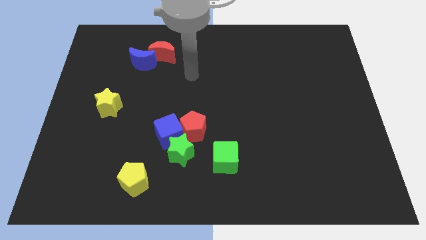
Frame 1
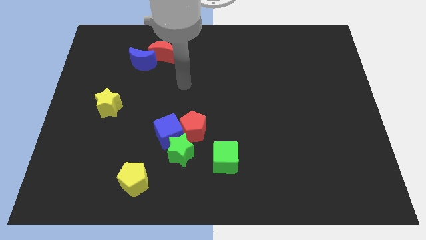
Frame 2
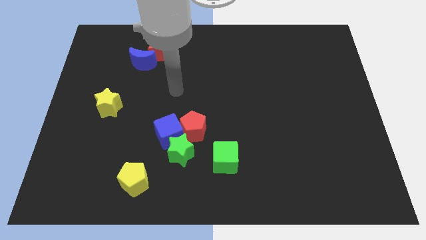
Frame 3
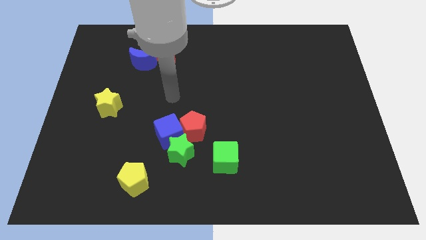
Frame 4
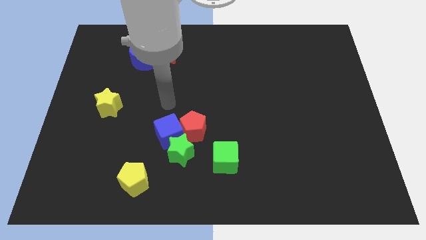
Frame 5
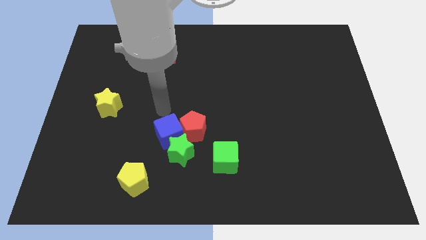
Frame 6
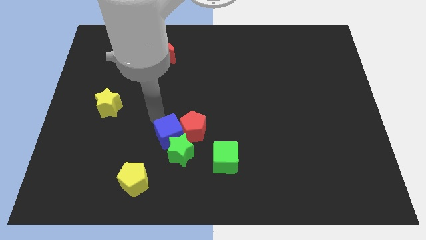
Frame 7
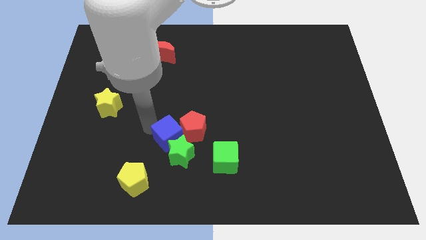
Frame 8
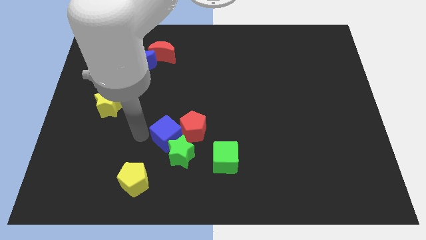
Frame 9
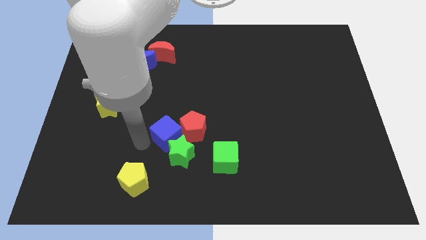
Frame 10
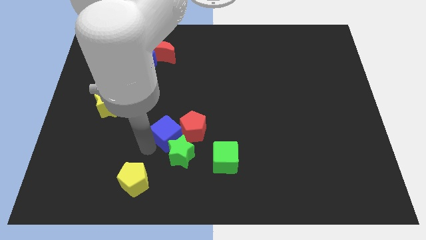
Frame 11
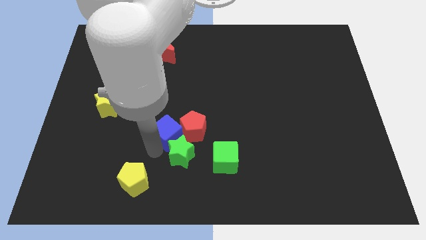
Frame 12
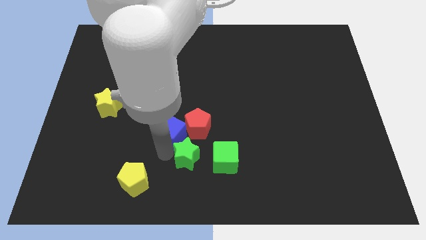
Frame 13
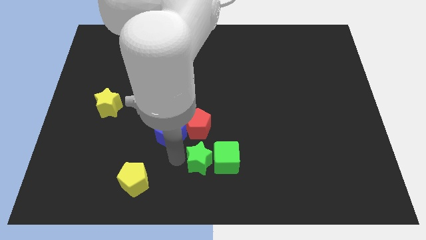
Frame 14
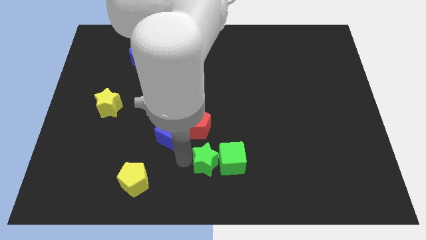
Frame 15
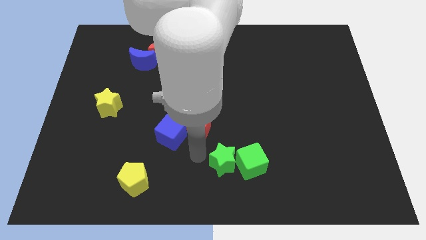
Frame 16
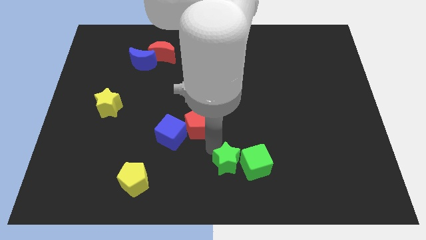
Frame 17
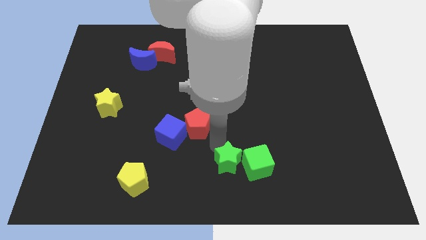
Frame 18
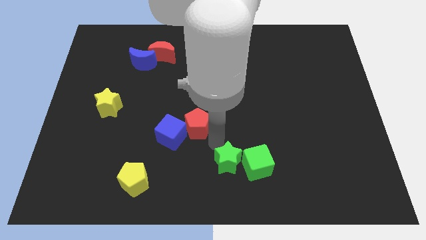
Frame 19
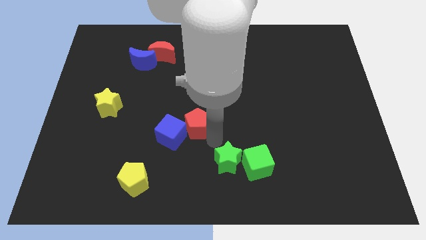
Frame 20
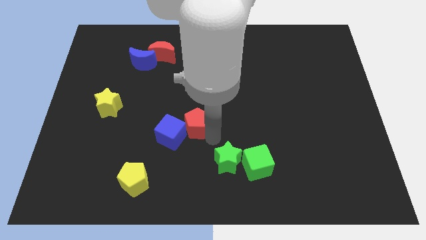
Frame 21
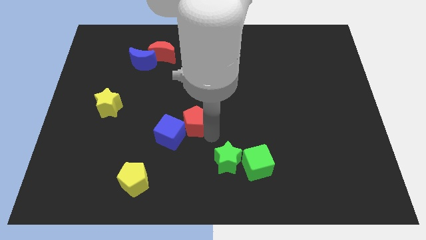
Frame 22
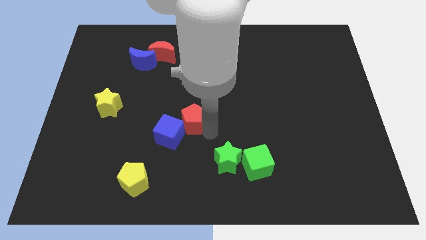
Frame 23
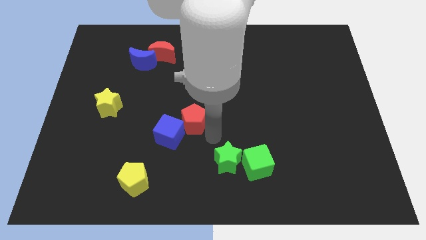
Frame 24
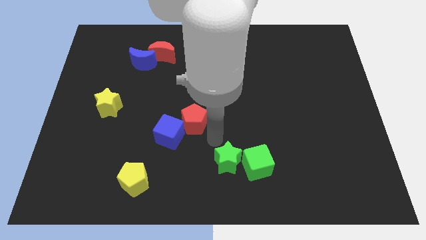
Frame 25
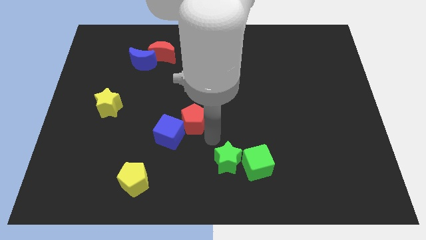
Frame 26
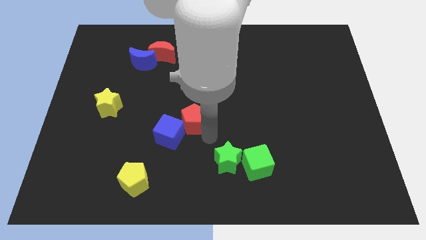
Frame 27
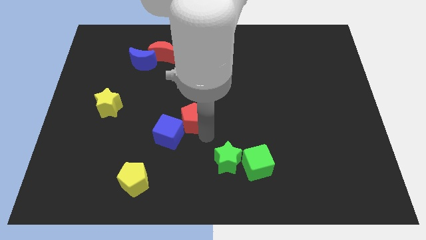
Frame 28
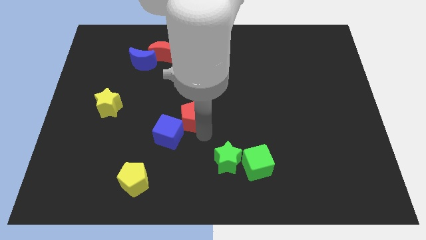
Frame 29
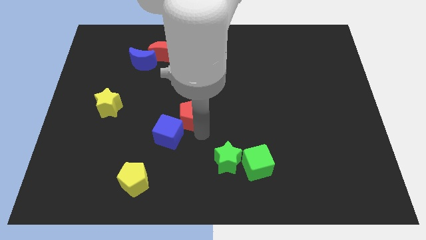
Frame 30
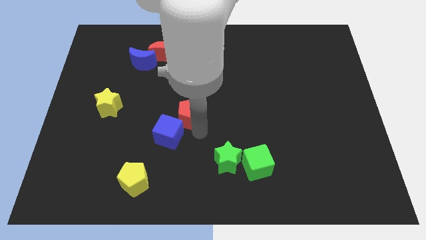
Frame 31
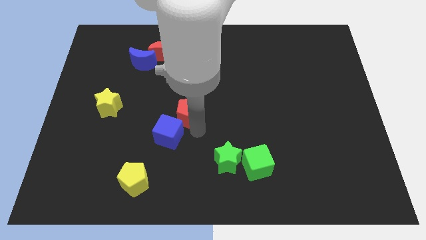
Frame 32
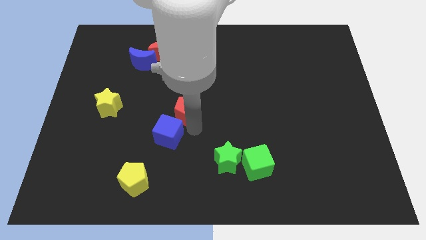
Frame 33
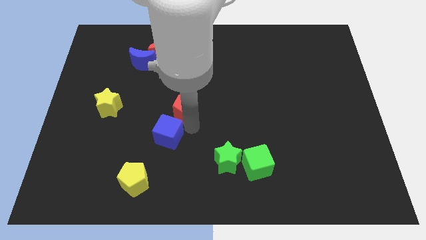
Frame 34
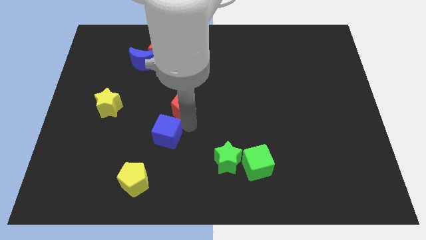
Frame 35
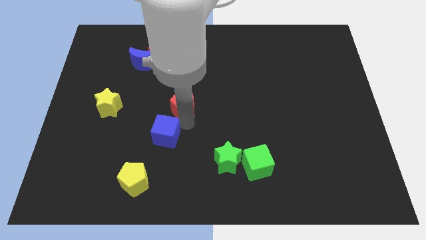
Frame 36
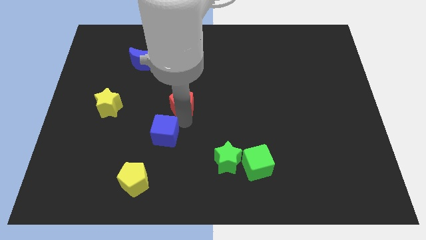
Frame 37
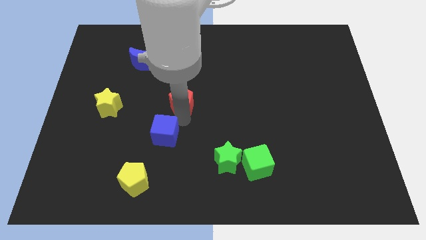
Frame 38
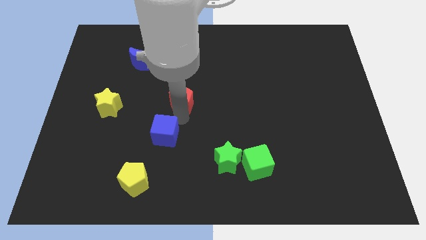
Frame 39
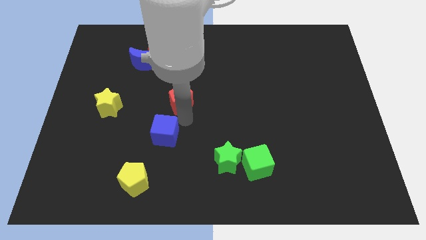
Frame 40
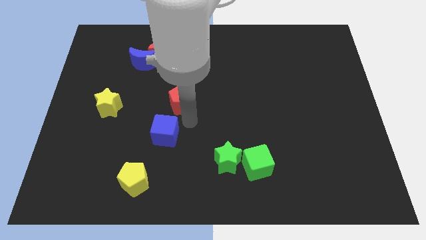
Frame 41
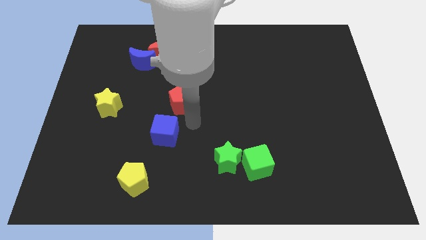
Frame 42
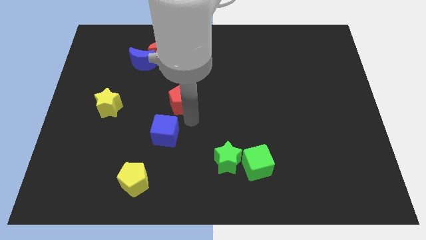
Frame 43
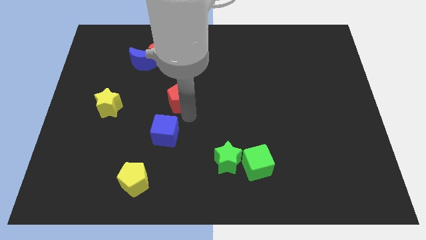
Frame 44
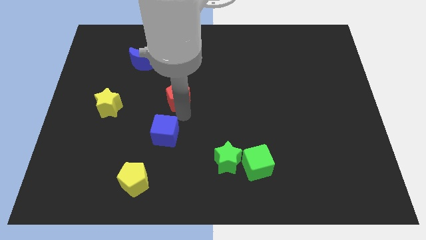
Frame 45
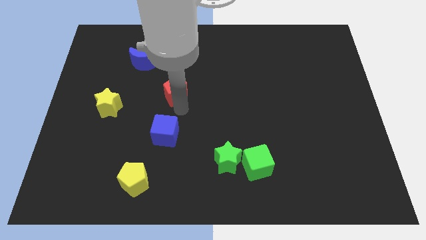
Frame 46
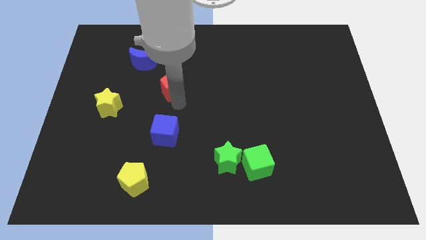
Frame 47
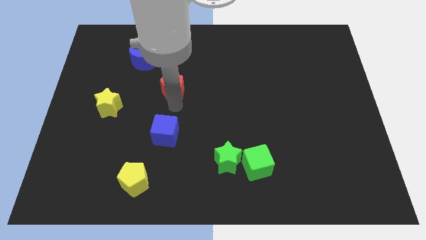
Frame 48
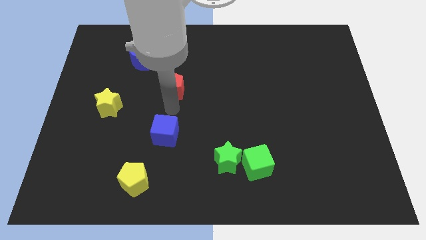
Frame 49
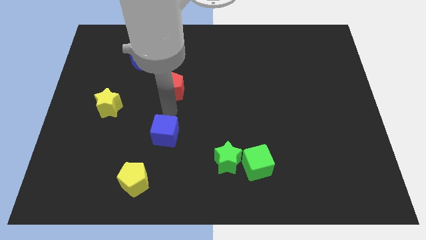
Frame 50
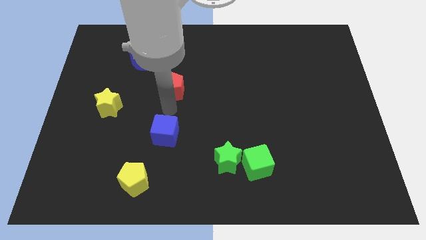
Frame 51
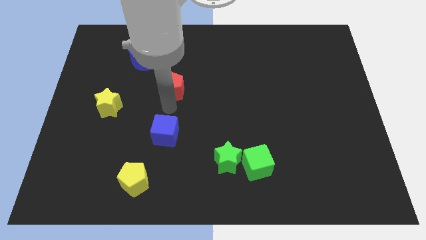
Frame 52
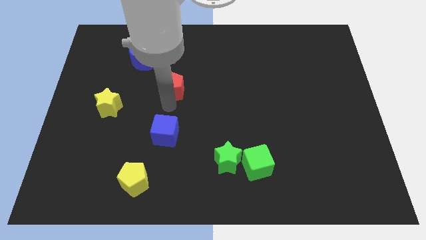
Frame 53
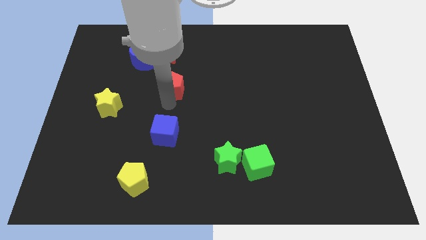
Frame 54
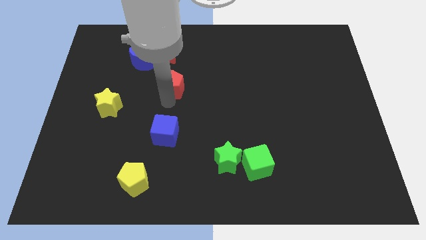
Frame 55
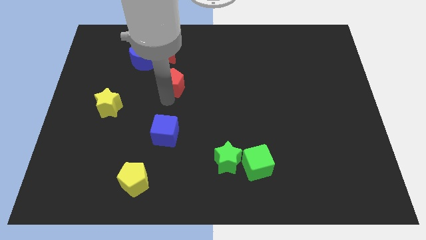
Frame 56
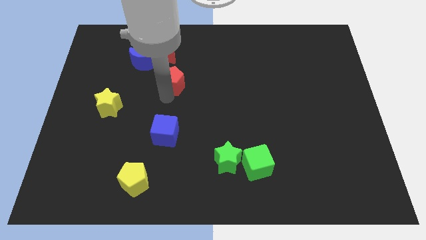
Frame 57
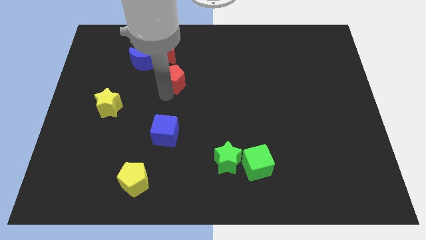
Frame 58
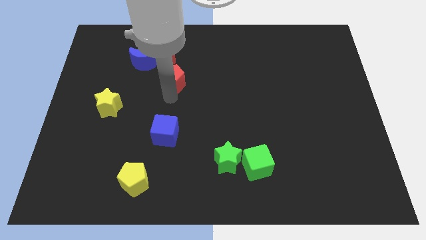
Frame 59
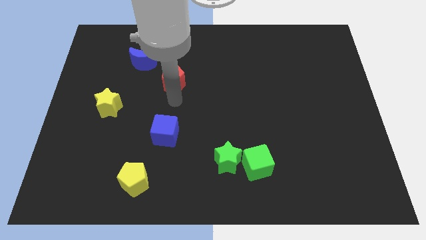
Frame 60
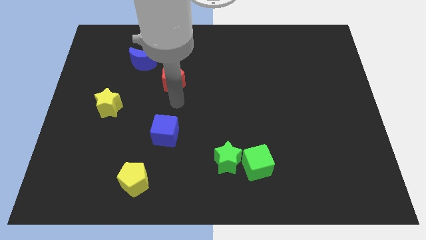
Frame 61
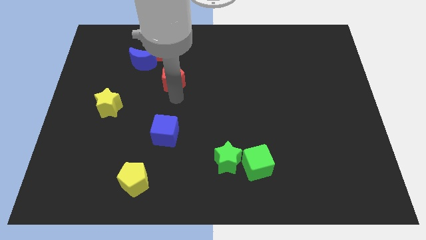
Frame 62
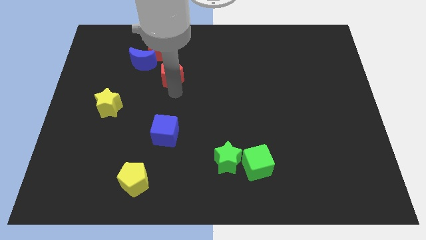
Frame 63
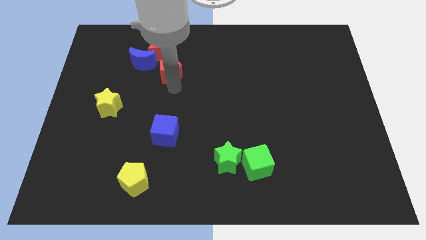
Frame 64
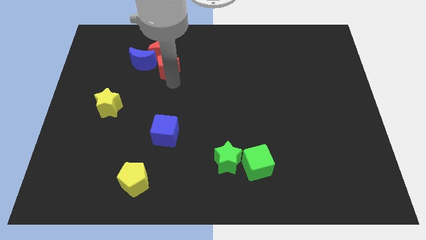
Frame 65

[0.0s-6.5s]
push the red pentagon close to the red moon
